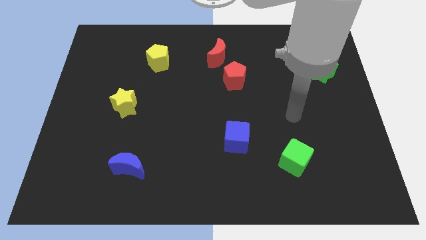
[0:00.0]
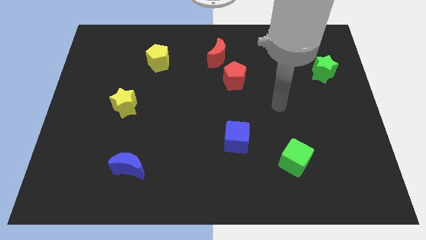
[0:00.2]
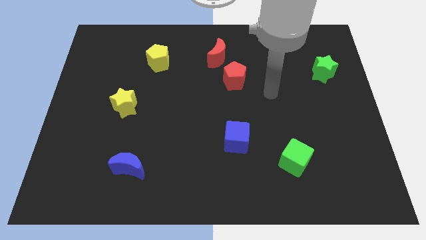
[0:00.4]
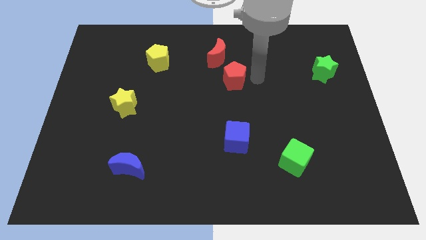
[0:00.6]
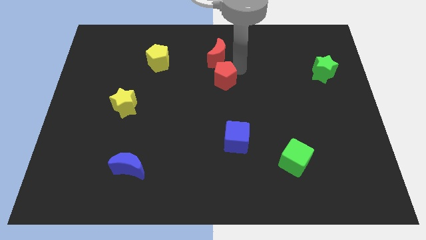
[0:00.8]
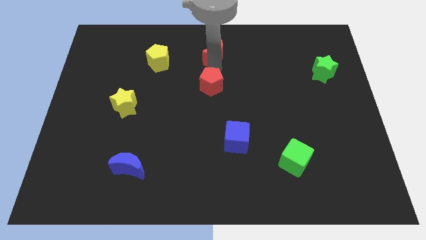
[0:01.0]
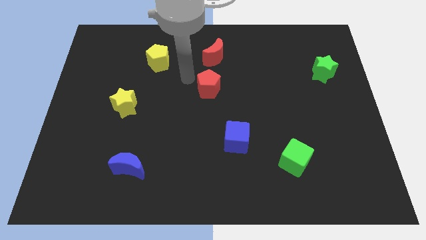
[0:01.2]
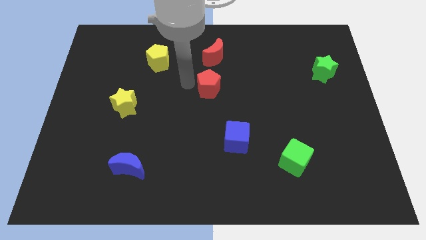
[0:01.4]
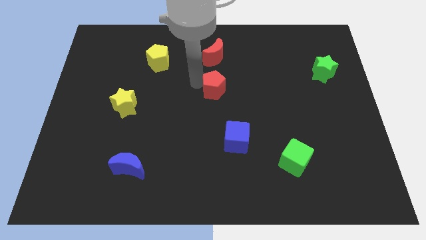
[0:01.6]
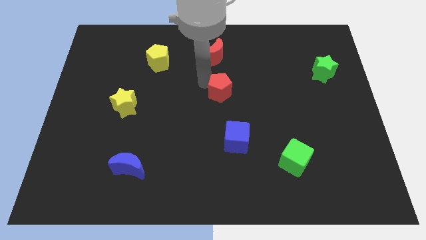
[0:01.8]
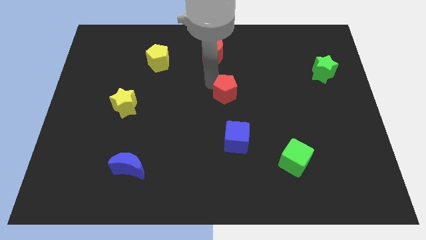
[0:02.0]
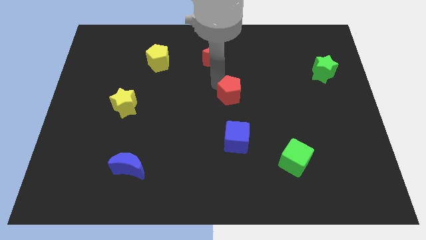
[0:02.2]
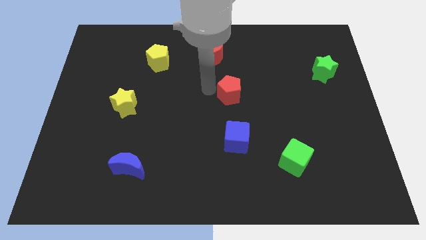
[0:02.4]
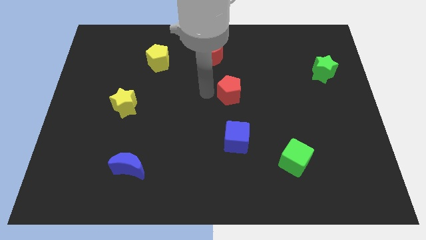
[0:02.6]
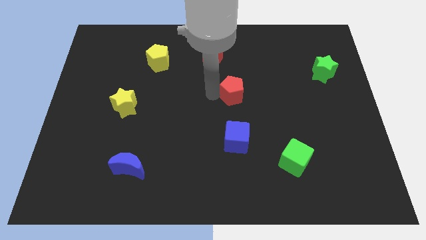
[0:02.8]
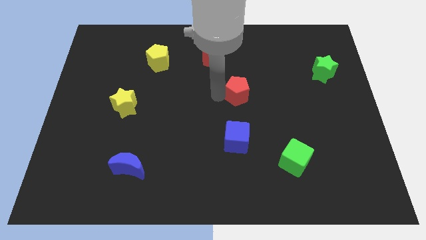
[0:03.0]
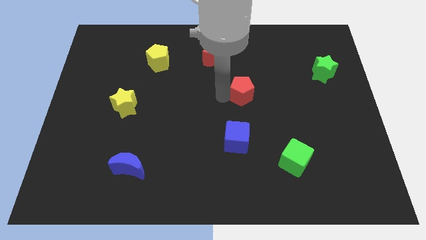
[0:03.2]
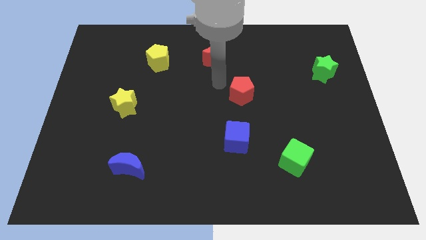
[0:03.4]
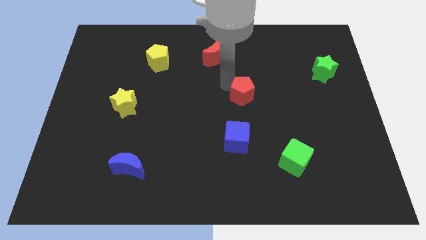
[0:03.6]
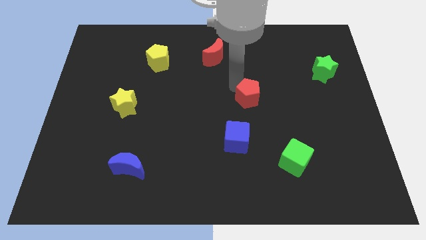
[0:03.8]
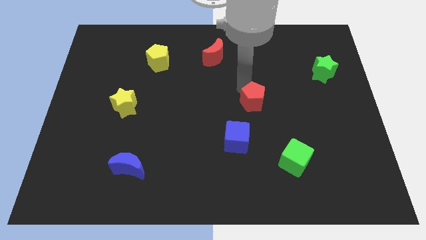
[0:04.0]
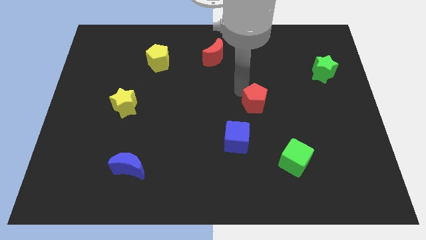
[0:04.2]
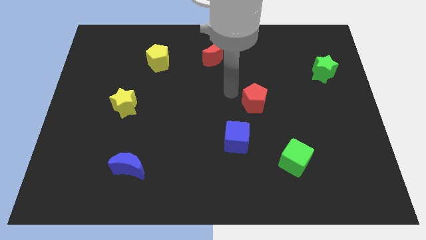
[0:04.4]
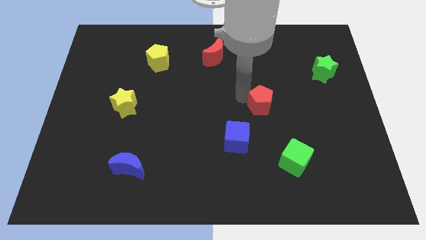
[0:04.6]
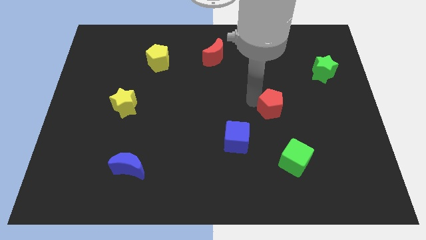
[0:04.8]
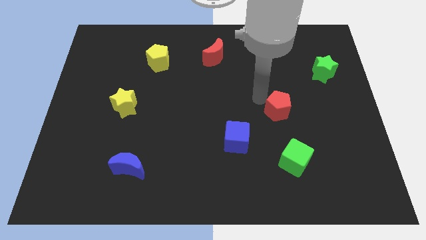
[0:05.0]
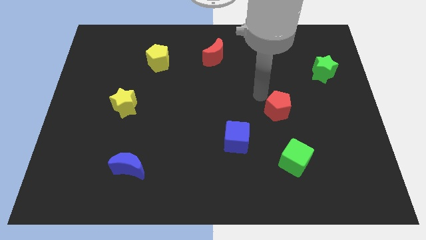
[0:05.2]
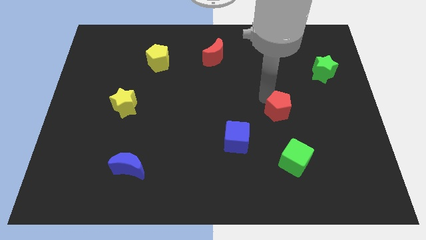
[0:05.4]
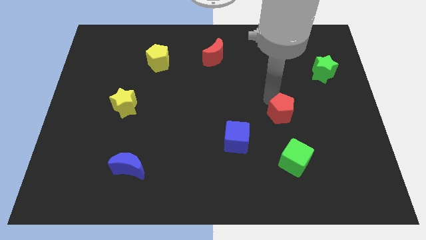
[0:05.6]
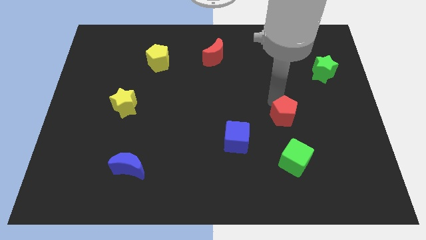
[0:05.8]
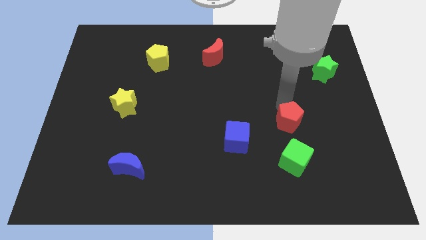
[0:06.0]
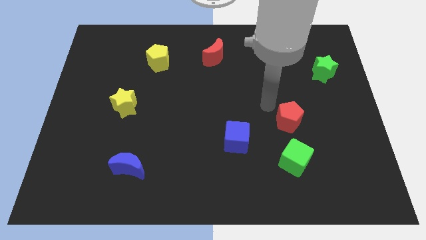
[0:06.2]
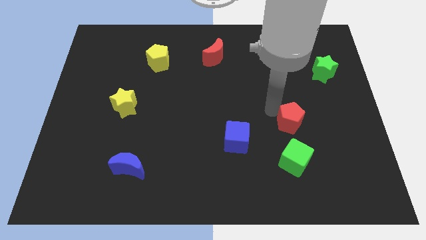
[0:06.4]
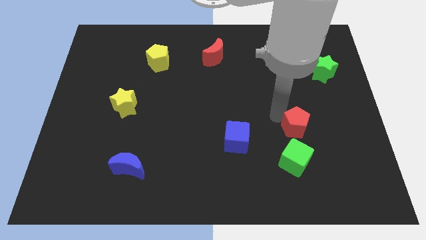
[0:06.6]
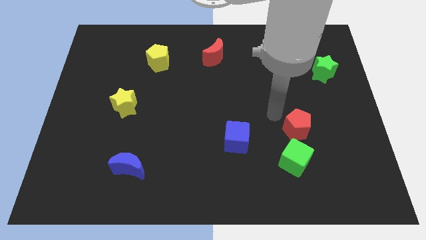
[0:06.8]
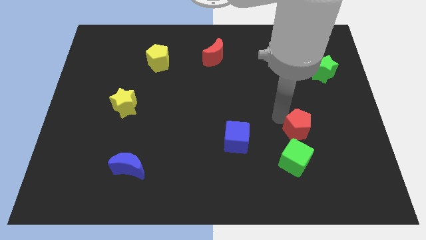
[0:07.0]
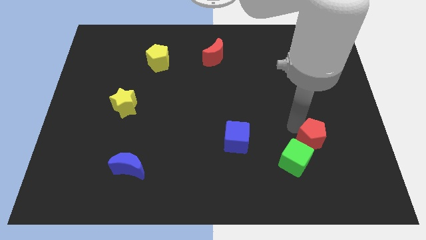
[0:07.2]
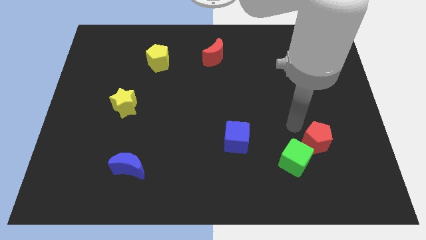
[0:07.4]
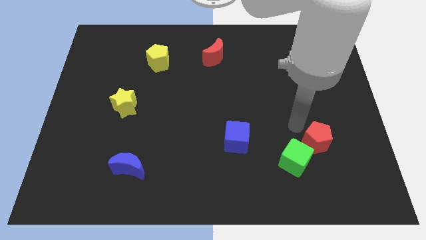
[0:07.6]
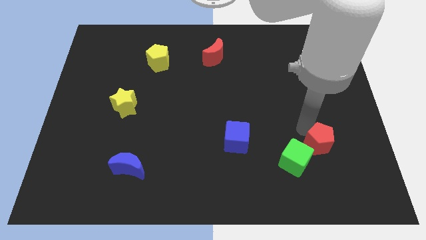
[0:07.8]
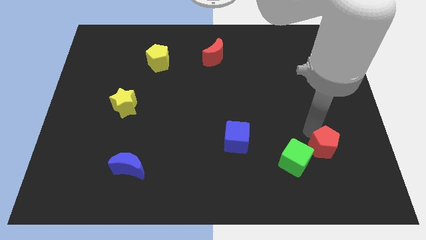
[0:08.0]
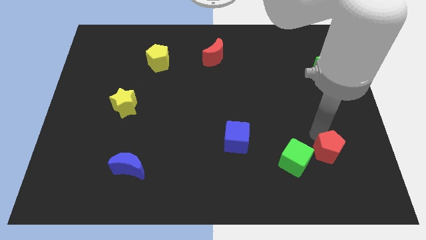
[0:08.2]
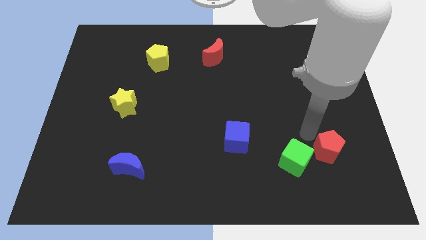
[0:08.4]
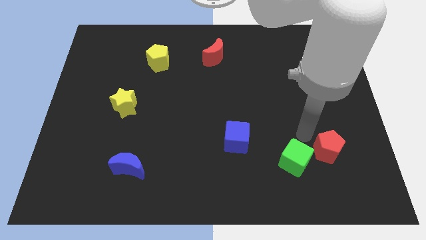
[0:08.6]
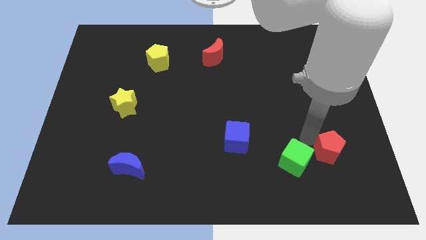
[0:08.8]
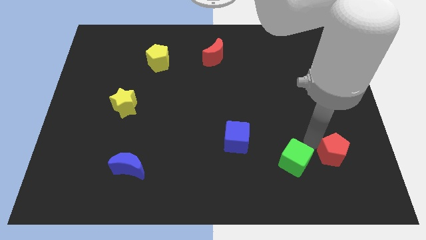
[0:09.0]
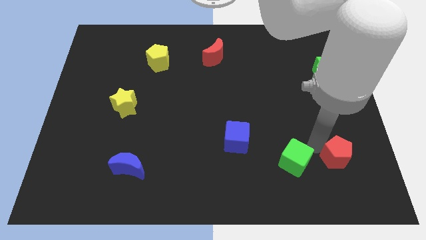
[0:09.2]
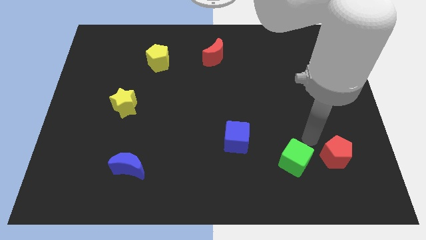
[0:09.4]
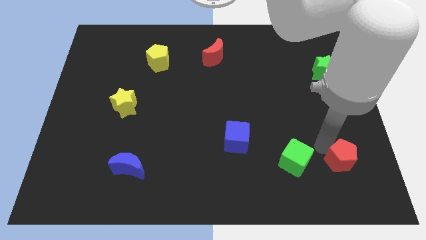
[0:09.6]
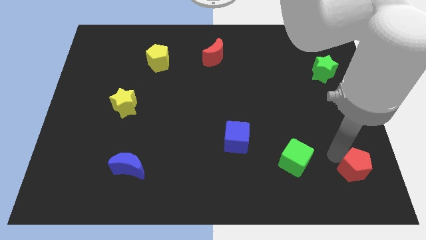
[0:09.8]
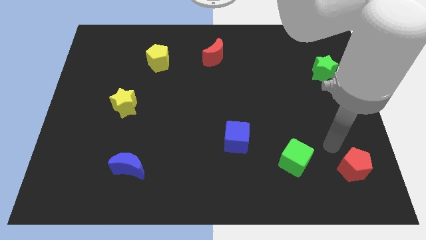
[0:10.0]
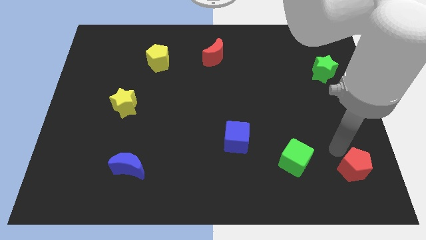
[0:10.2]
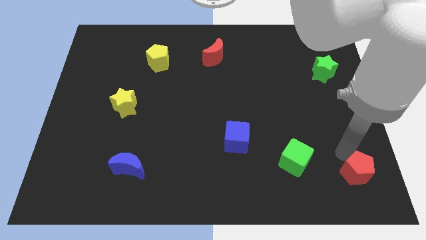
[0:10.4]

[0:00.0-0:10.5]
move the red pentagon to the bottom right of the board

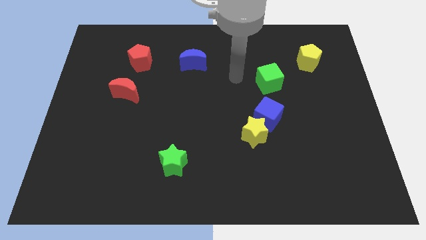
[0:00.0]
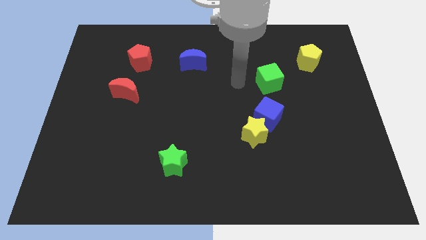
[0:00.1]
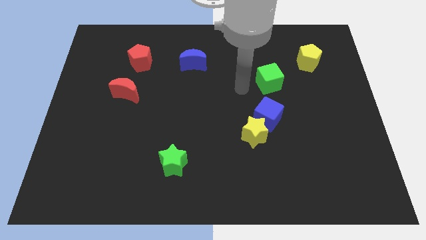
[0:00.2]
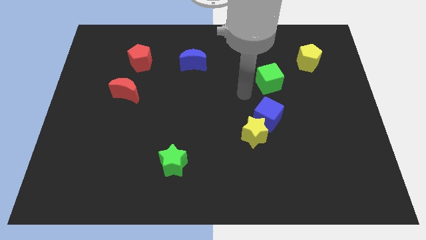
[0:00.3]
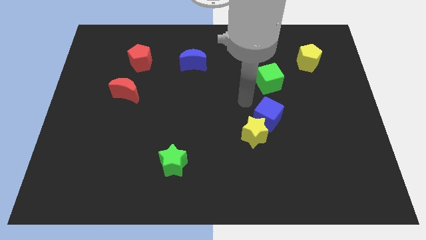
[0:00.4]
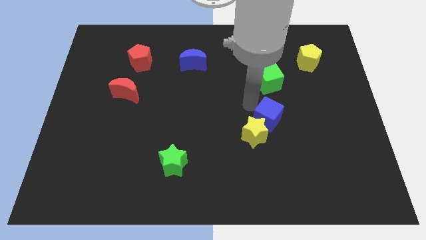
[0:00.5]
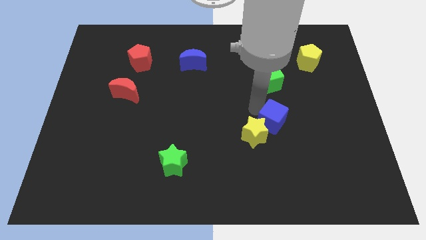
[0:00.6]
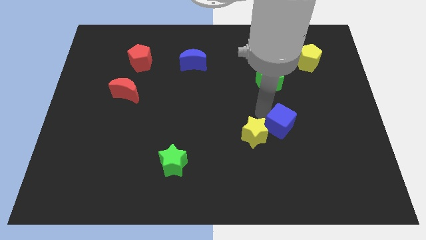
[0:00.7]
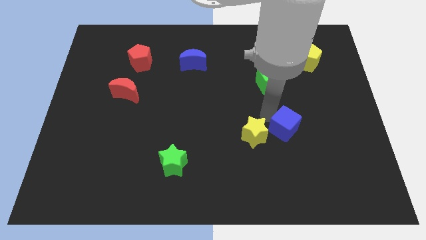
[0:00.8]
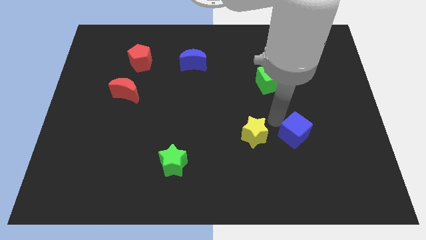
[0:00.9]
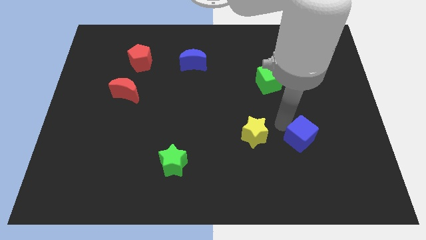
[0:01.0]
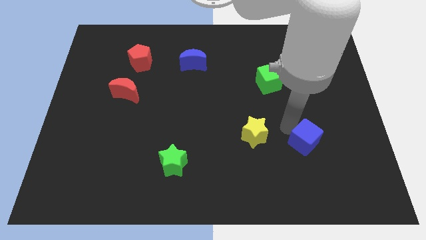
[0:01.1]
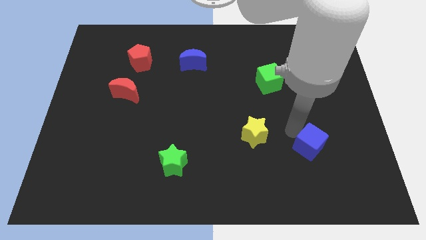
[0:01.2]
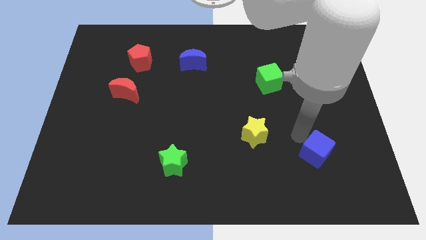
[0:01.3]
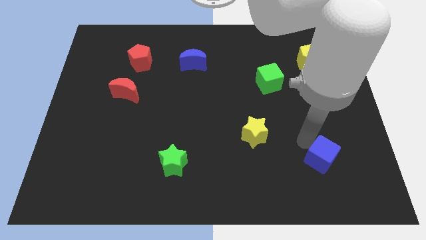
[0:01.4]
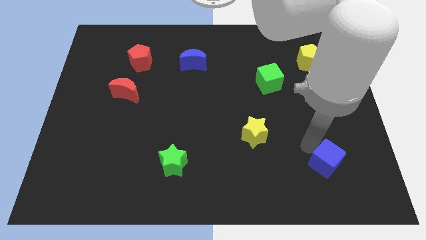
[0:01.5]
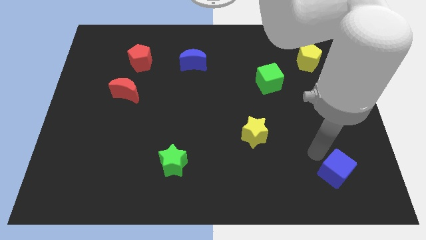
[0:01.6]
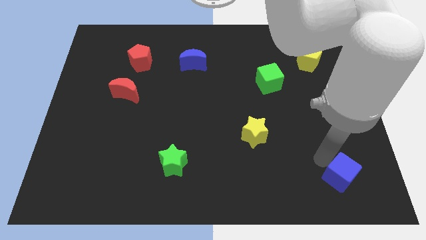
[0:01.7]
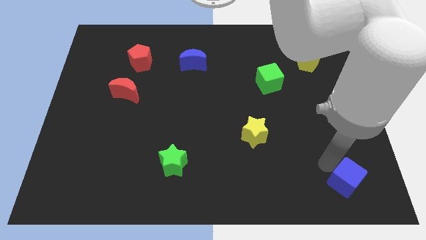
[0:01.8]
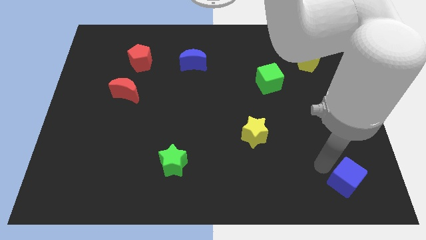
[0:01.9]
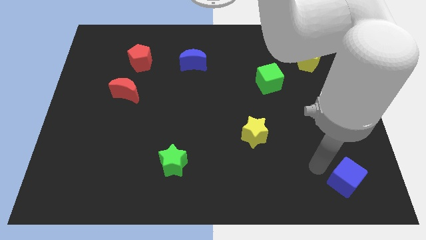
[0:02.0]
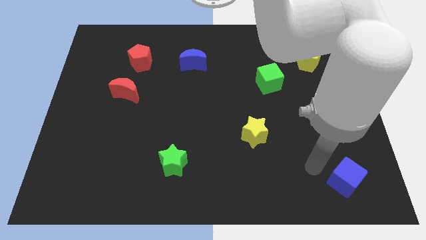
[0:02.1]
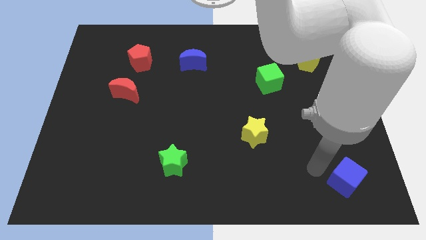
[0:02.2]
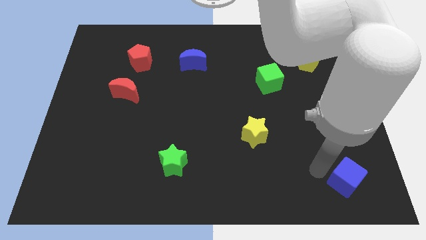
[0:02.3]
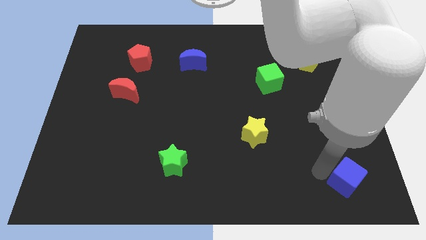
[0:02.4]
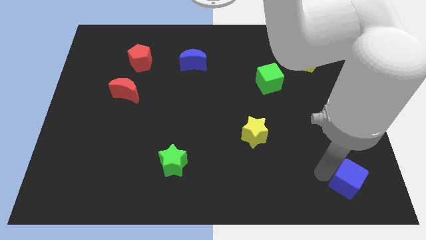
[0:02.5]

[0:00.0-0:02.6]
put the blue cube to the bottom right corner
